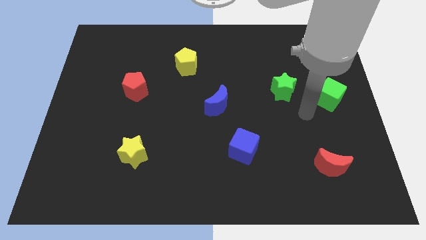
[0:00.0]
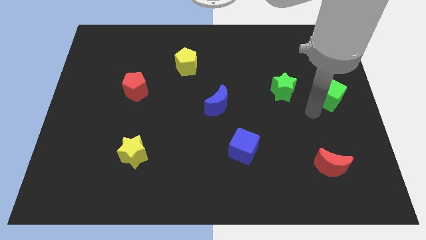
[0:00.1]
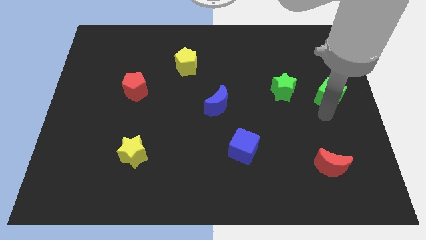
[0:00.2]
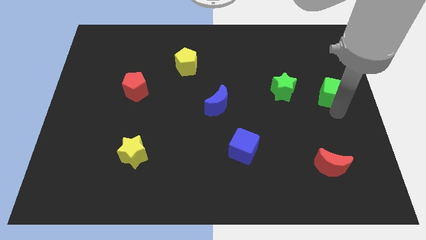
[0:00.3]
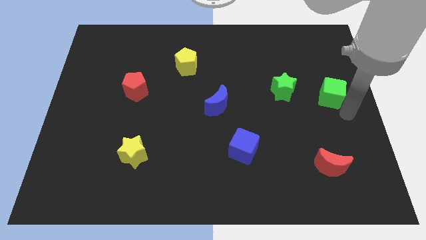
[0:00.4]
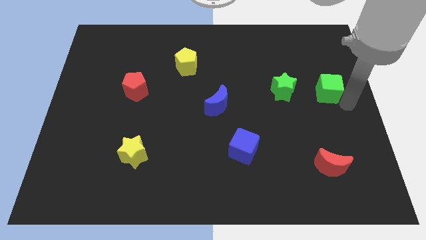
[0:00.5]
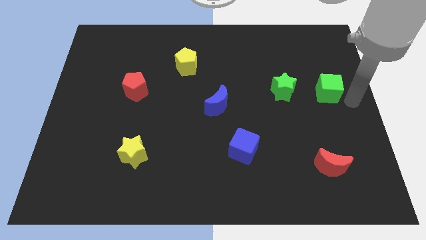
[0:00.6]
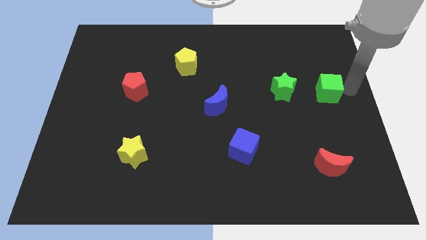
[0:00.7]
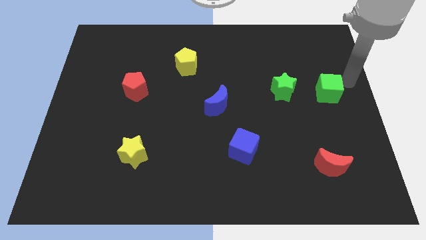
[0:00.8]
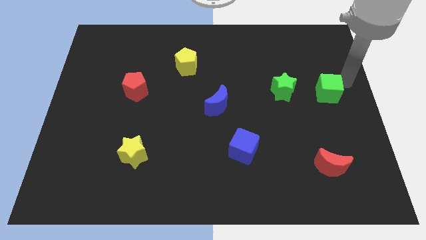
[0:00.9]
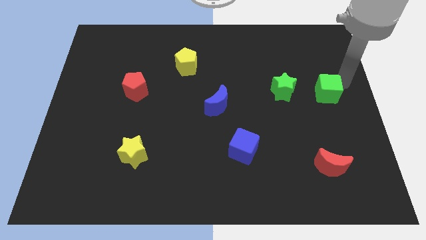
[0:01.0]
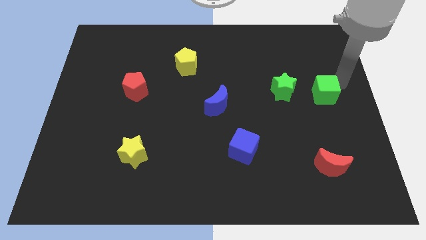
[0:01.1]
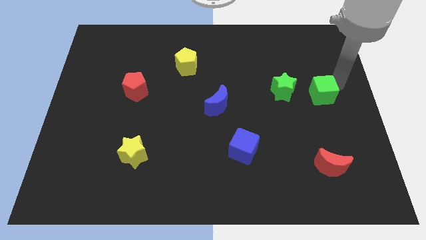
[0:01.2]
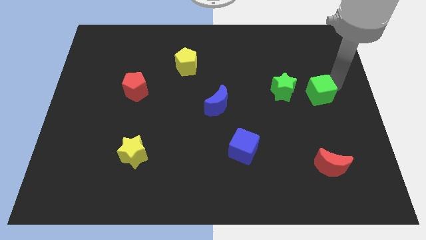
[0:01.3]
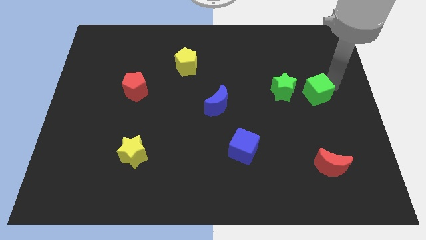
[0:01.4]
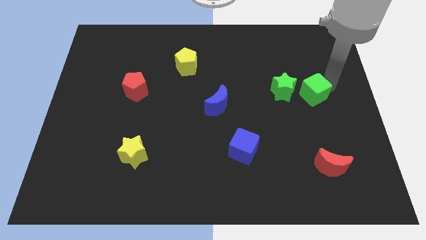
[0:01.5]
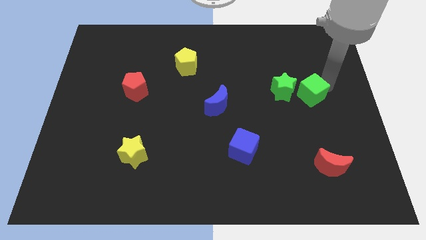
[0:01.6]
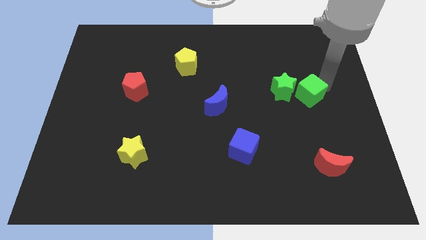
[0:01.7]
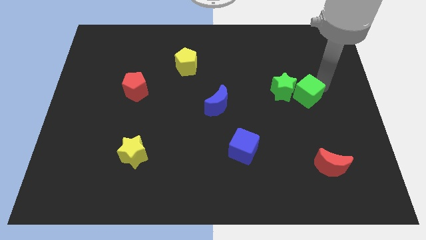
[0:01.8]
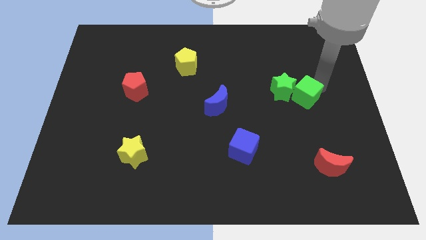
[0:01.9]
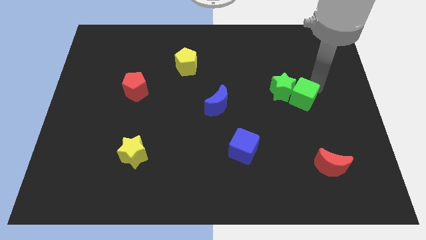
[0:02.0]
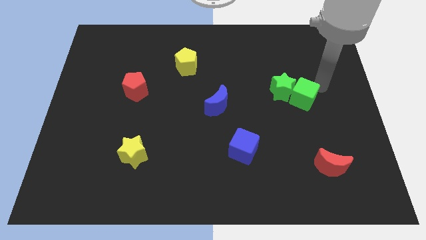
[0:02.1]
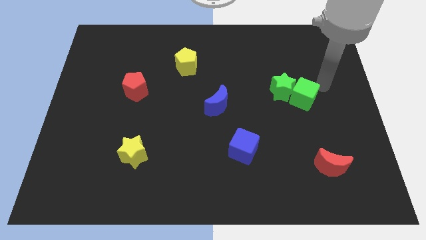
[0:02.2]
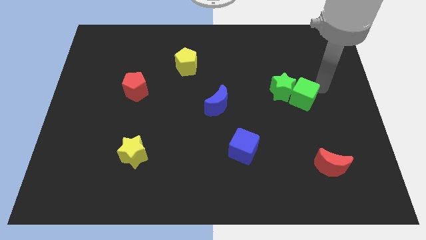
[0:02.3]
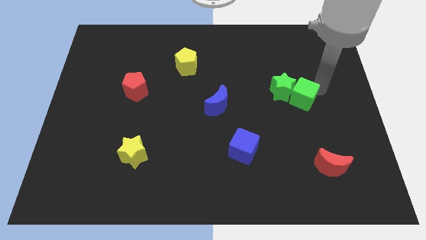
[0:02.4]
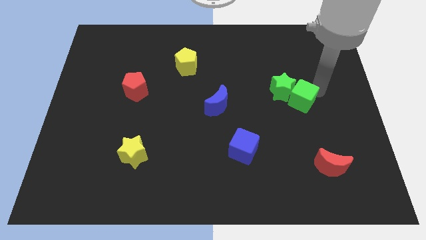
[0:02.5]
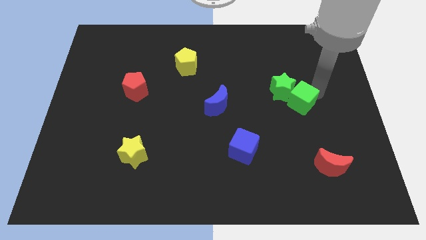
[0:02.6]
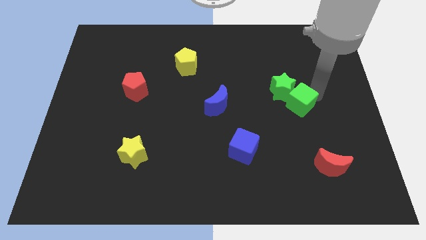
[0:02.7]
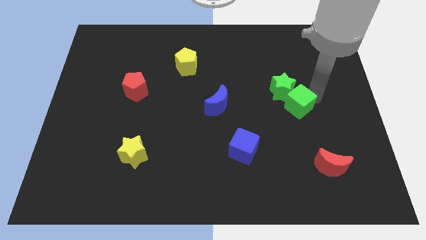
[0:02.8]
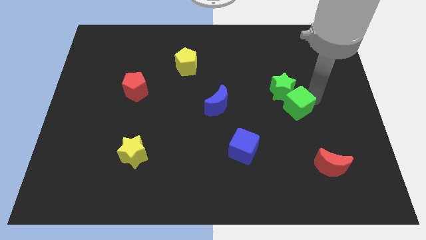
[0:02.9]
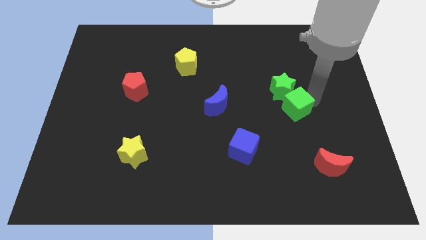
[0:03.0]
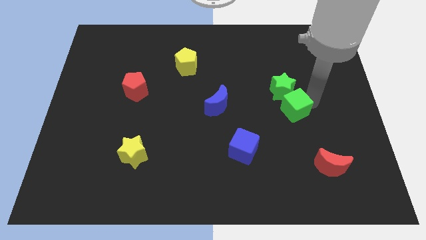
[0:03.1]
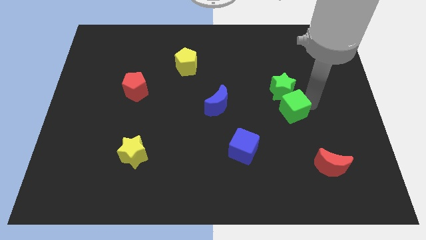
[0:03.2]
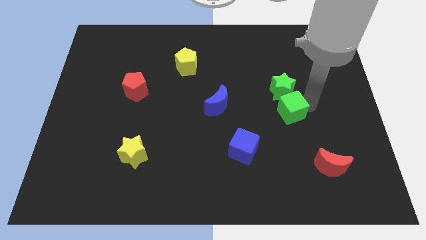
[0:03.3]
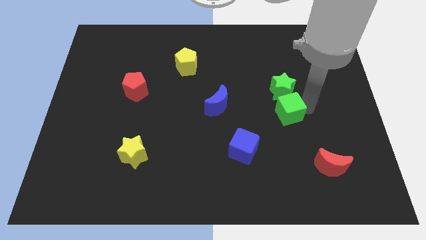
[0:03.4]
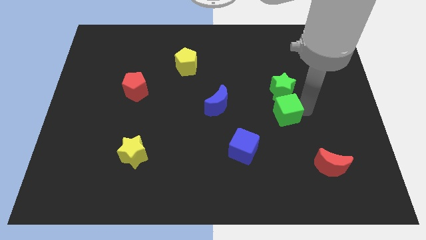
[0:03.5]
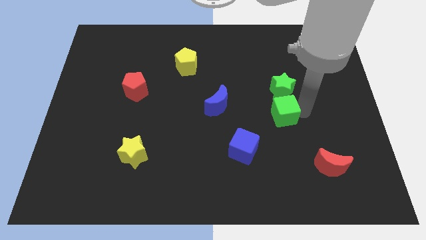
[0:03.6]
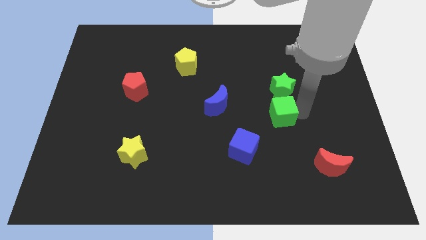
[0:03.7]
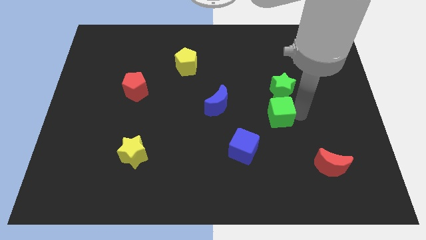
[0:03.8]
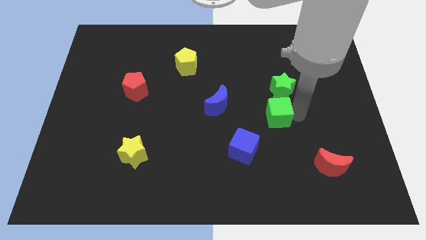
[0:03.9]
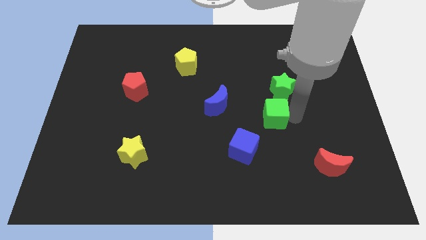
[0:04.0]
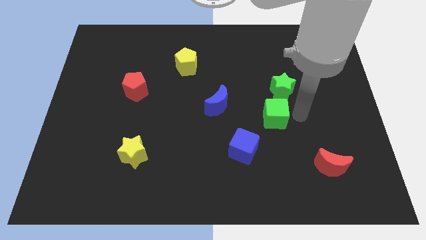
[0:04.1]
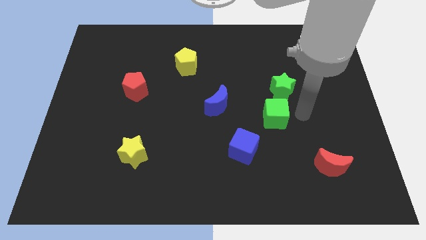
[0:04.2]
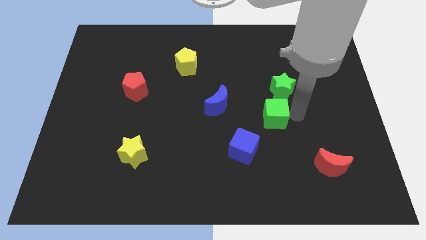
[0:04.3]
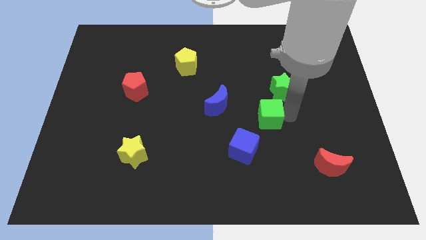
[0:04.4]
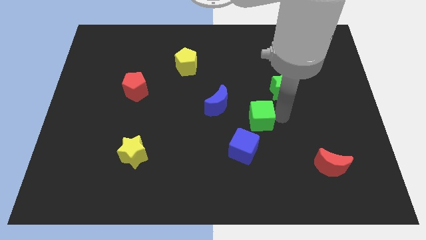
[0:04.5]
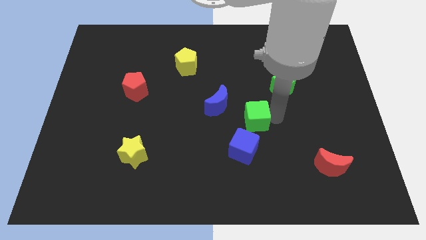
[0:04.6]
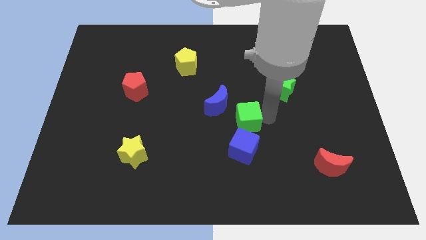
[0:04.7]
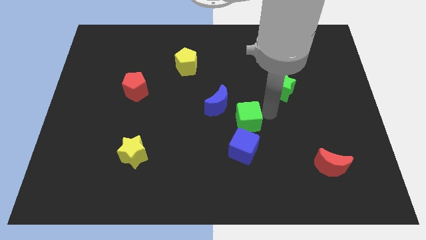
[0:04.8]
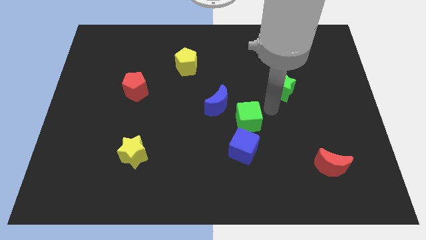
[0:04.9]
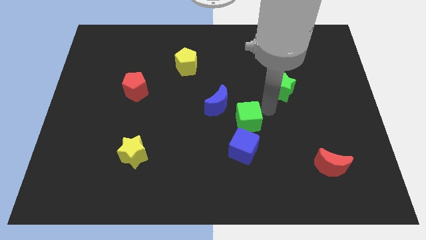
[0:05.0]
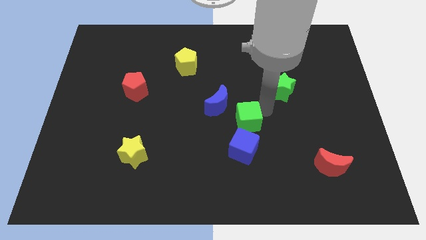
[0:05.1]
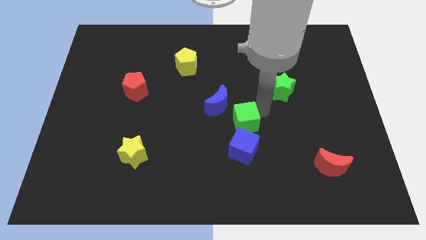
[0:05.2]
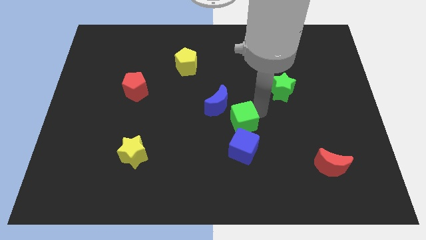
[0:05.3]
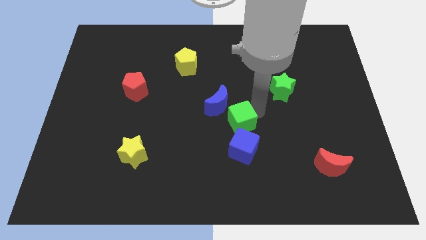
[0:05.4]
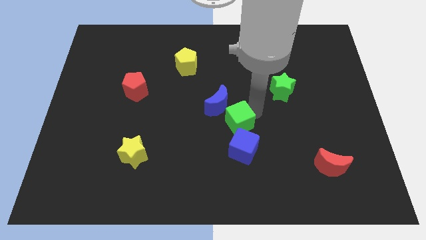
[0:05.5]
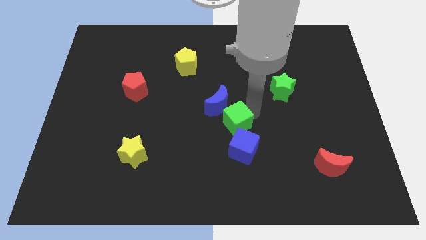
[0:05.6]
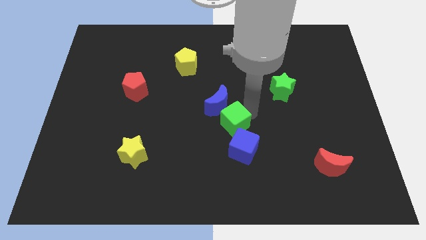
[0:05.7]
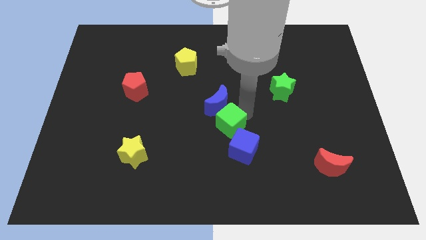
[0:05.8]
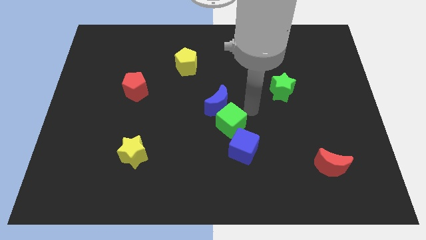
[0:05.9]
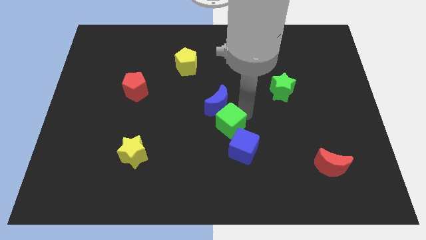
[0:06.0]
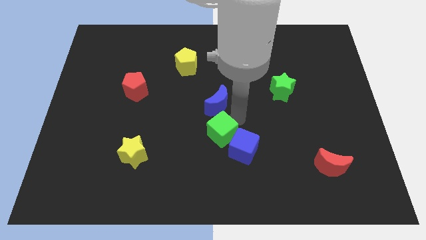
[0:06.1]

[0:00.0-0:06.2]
put the green cube to the left of the blue cube

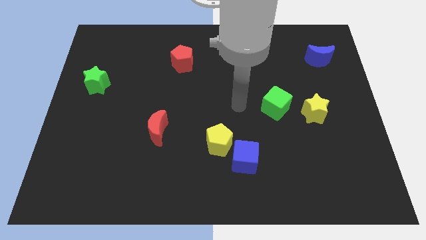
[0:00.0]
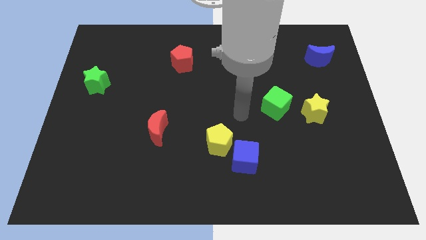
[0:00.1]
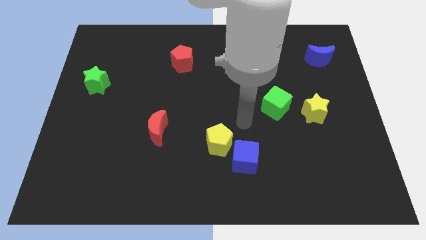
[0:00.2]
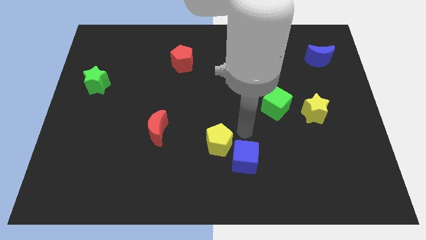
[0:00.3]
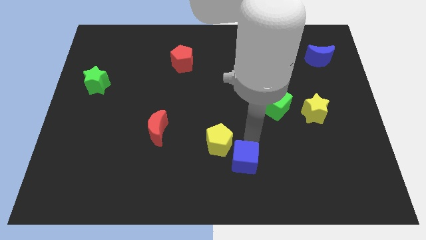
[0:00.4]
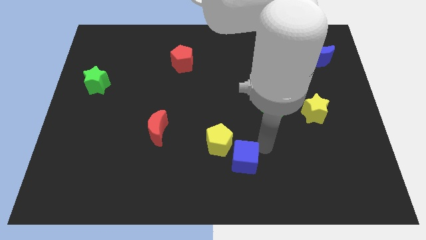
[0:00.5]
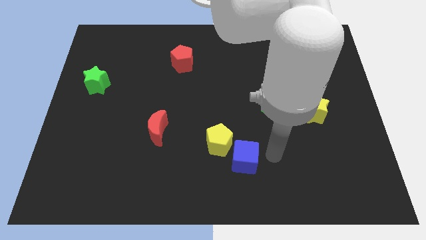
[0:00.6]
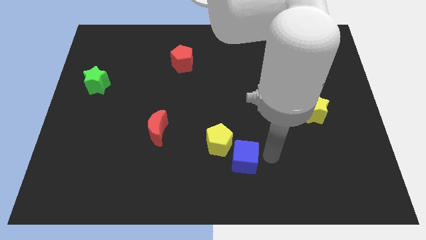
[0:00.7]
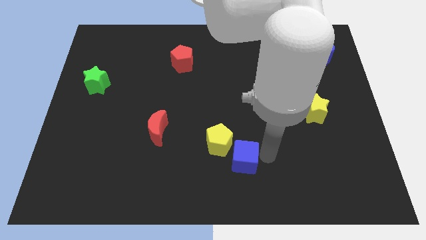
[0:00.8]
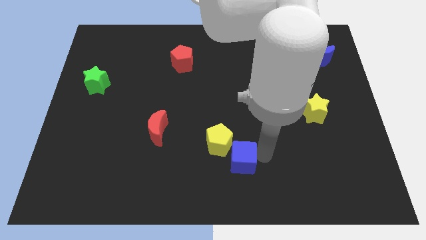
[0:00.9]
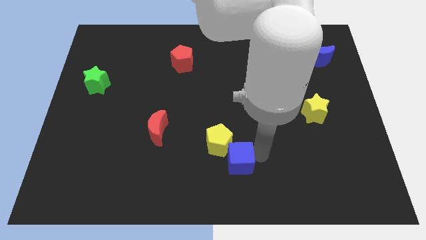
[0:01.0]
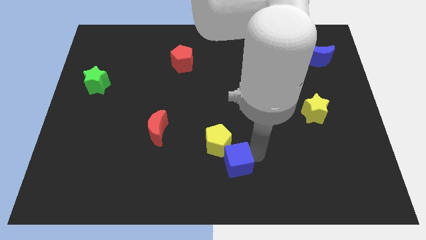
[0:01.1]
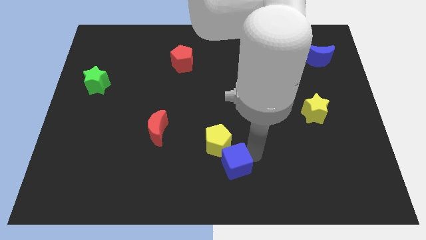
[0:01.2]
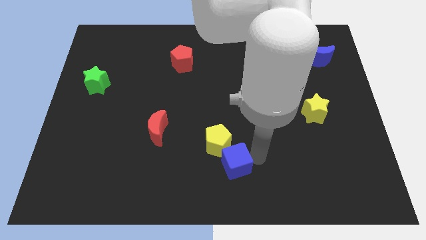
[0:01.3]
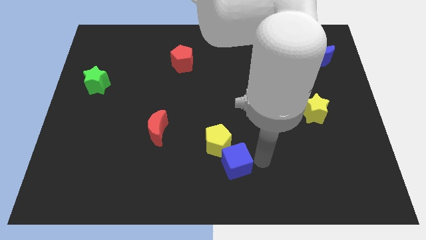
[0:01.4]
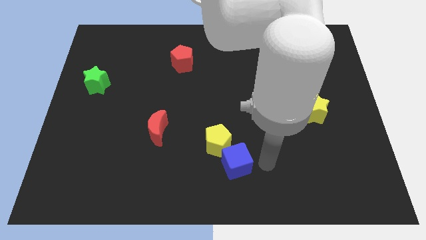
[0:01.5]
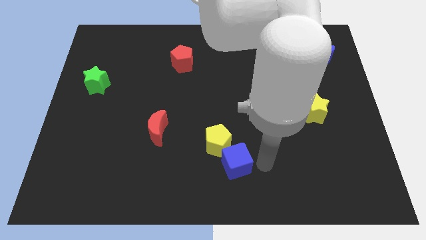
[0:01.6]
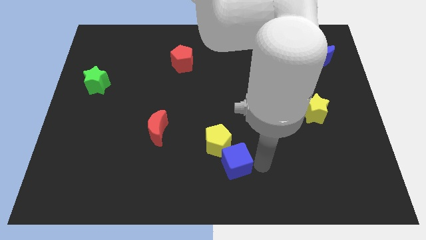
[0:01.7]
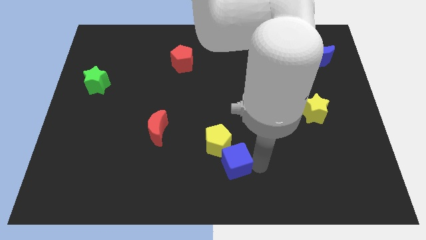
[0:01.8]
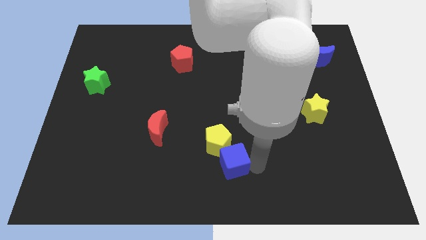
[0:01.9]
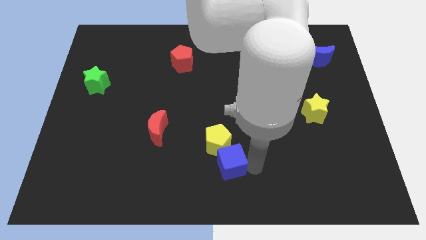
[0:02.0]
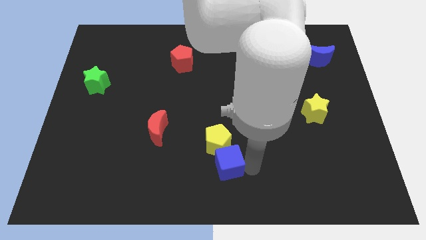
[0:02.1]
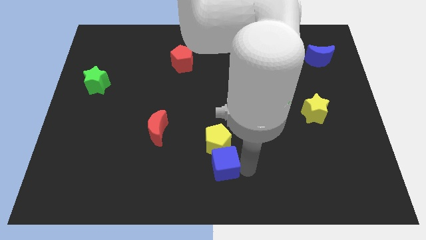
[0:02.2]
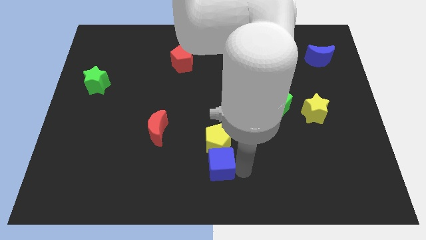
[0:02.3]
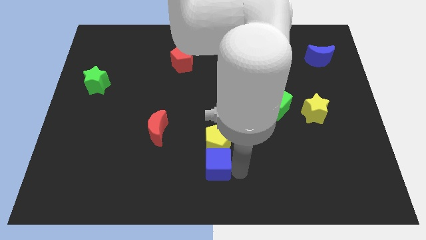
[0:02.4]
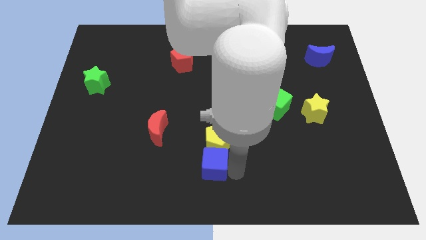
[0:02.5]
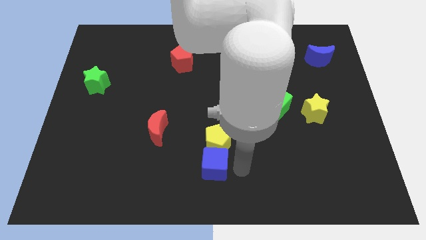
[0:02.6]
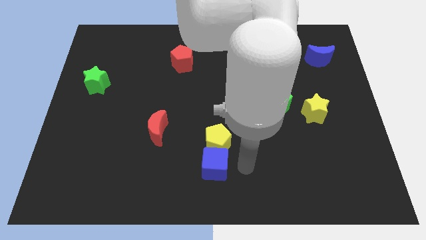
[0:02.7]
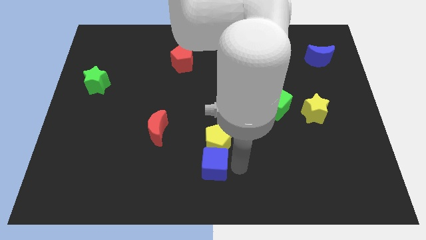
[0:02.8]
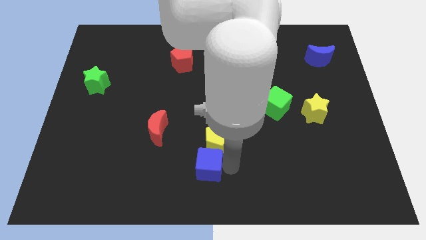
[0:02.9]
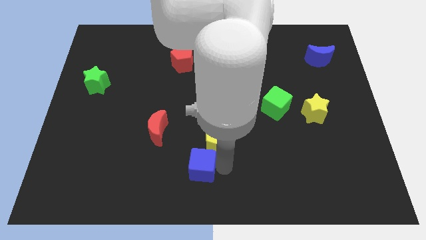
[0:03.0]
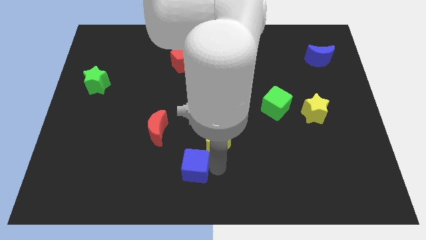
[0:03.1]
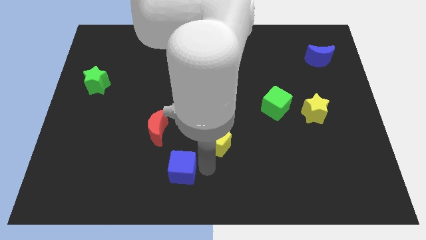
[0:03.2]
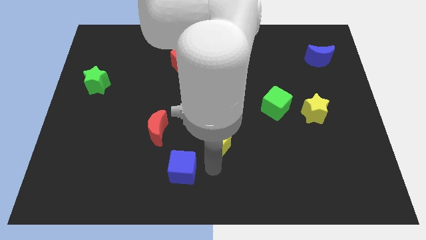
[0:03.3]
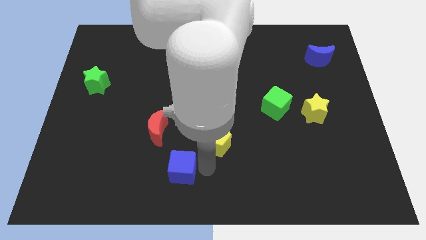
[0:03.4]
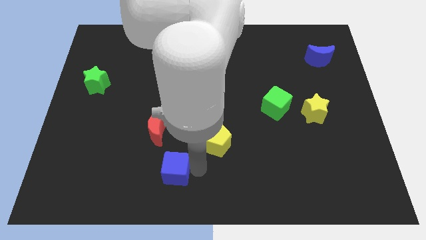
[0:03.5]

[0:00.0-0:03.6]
push the blue cube below the red moon
